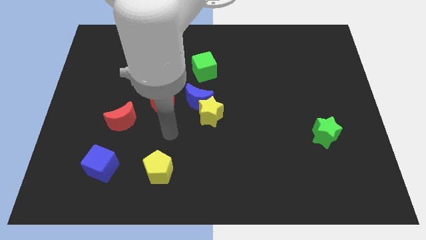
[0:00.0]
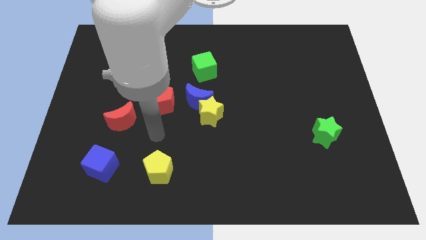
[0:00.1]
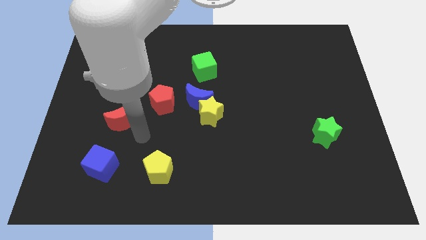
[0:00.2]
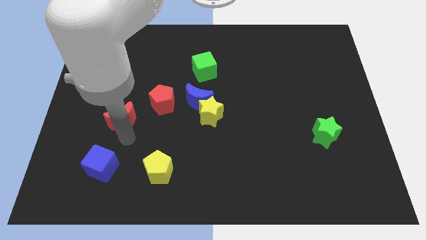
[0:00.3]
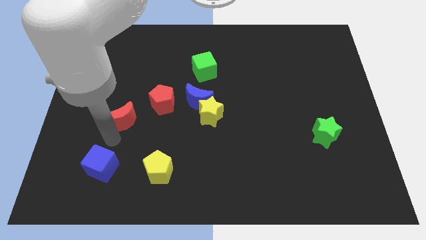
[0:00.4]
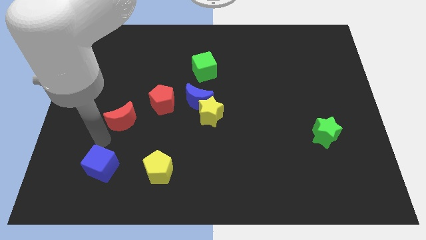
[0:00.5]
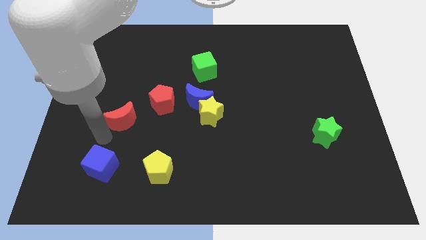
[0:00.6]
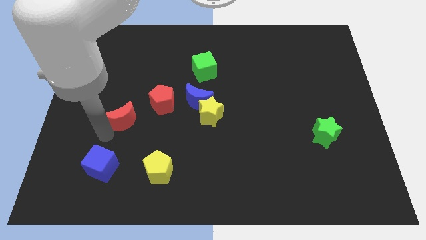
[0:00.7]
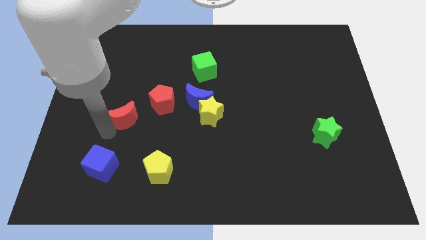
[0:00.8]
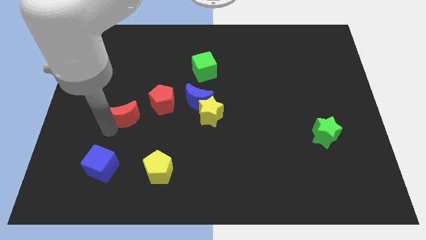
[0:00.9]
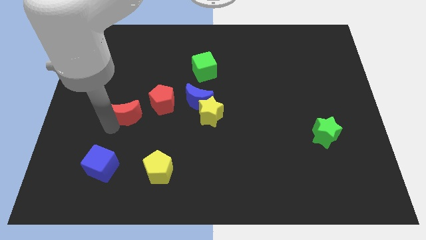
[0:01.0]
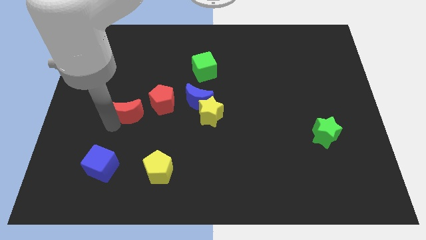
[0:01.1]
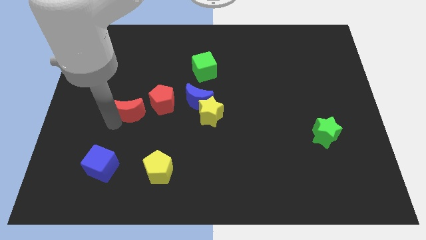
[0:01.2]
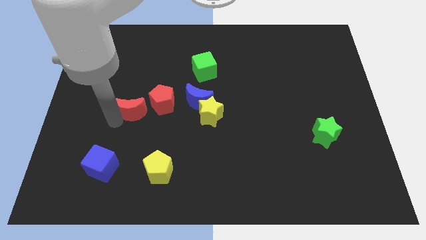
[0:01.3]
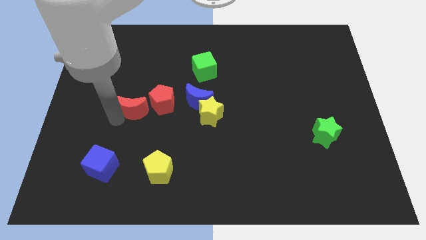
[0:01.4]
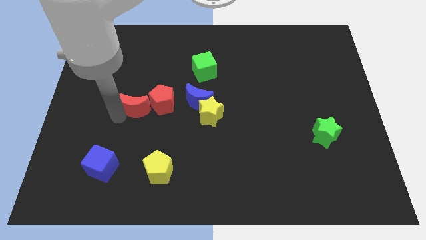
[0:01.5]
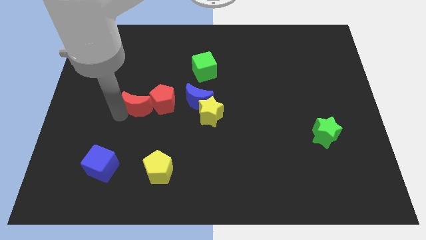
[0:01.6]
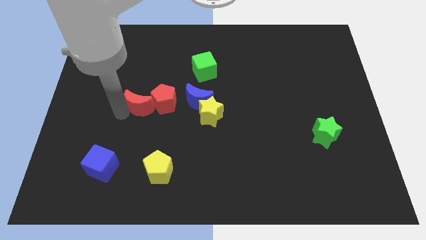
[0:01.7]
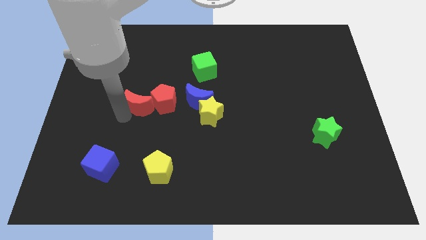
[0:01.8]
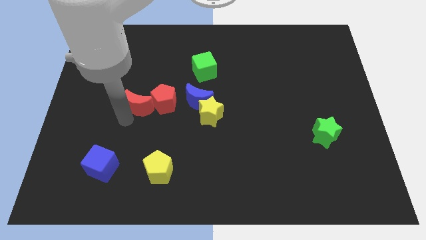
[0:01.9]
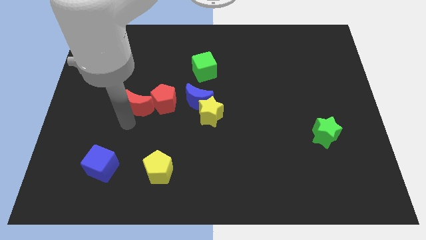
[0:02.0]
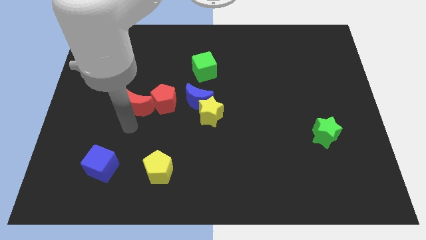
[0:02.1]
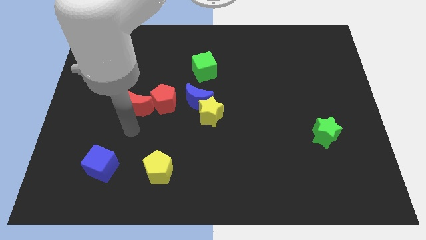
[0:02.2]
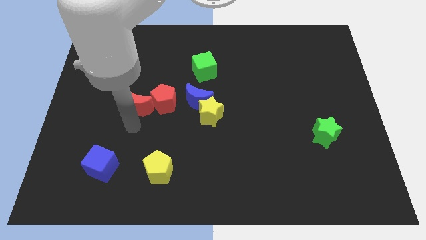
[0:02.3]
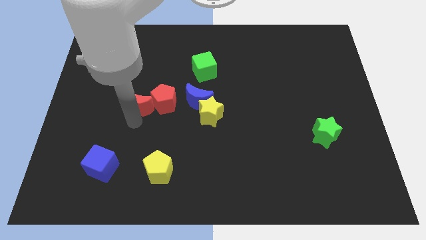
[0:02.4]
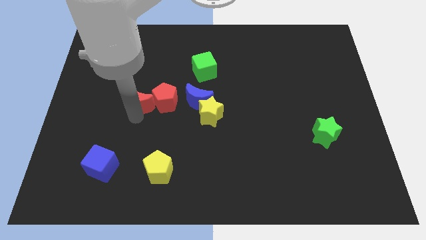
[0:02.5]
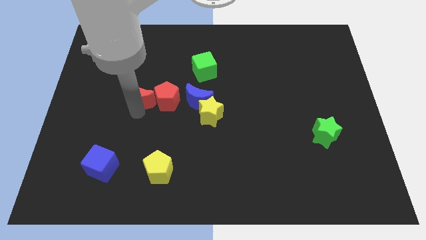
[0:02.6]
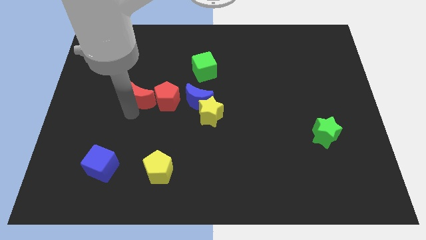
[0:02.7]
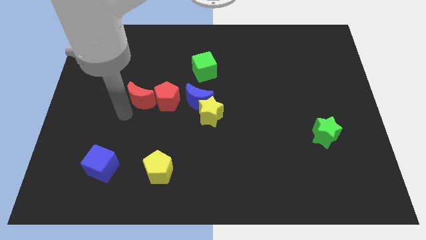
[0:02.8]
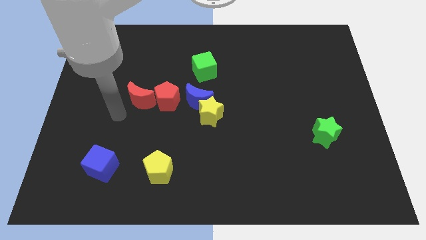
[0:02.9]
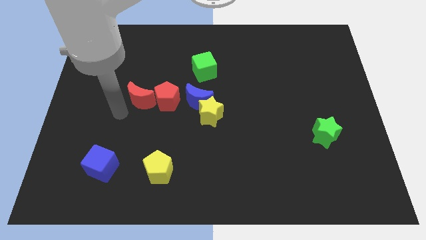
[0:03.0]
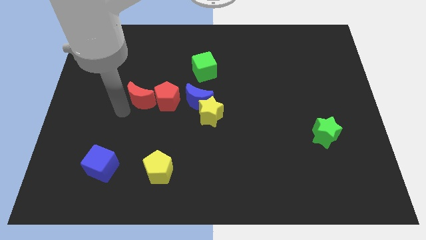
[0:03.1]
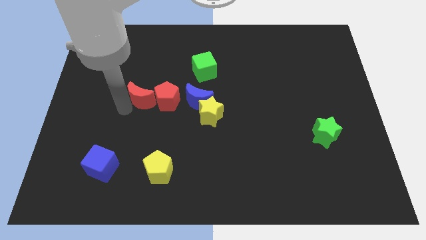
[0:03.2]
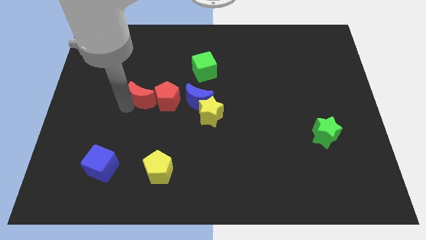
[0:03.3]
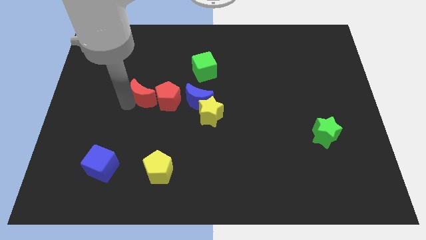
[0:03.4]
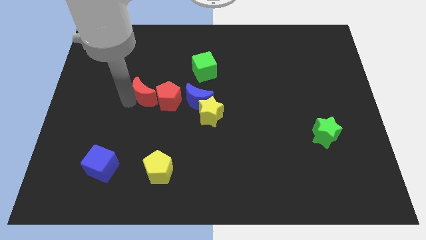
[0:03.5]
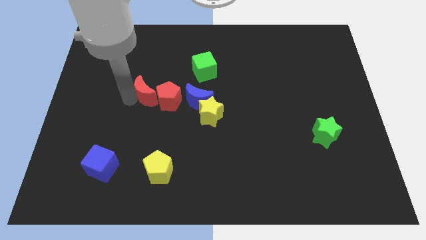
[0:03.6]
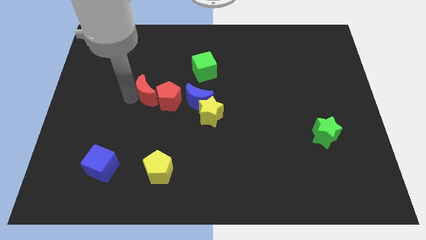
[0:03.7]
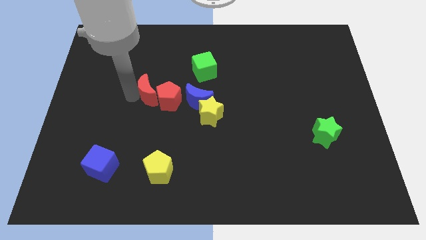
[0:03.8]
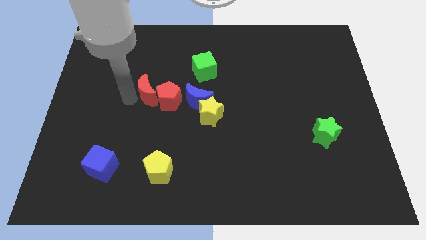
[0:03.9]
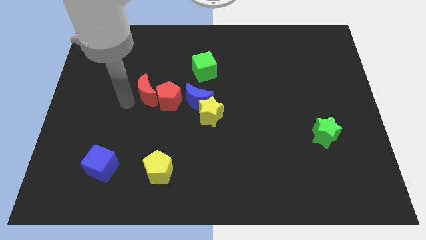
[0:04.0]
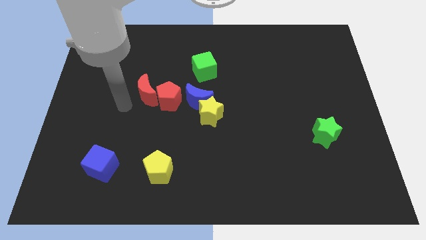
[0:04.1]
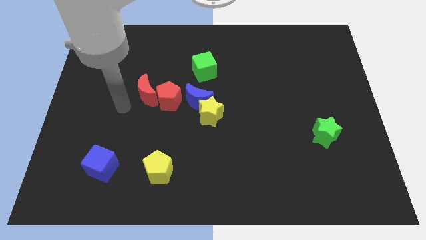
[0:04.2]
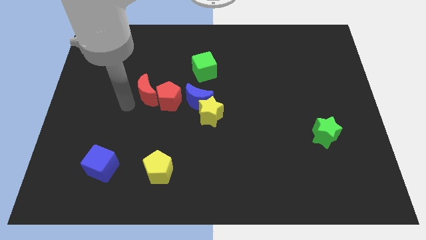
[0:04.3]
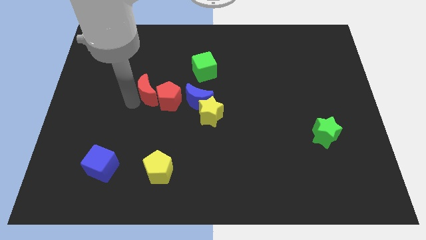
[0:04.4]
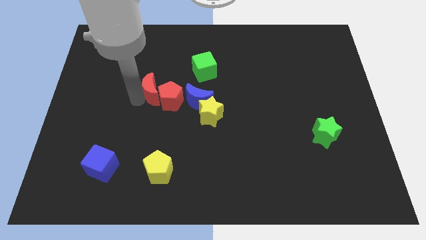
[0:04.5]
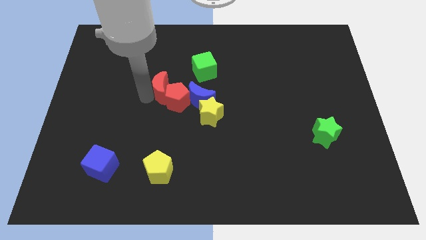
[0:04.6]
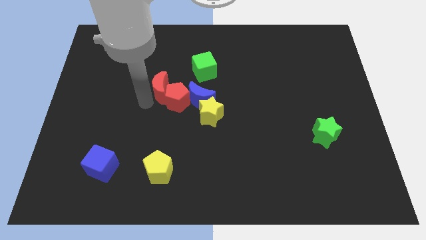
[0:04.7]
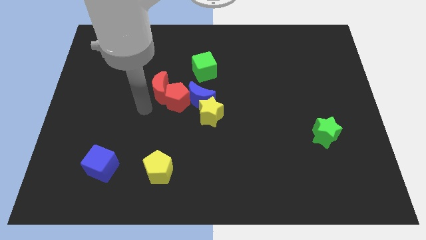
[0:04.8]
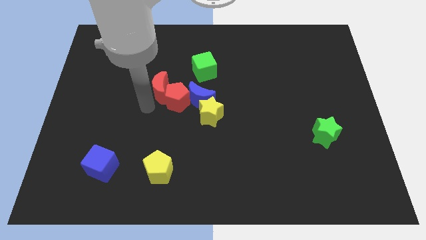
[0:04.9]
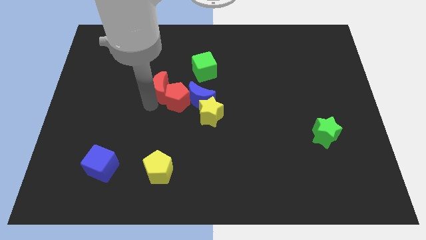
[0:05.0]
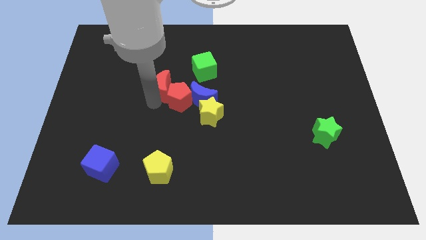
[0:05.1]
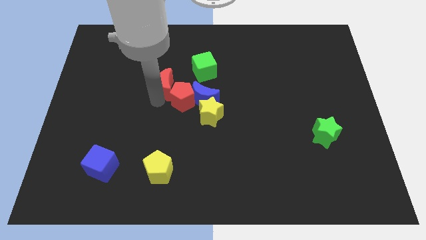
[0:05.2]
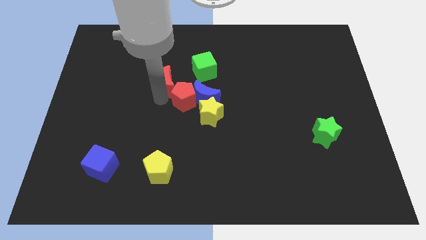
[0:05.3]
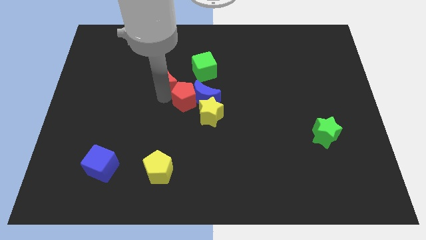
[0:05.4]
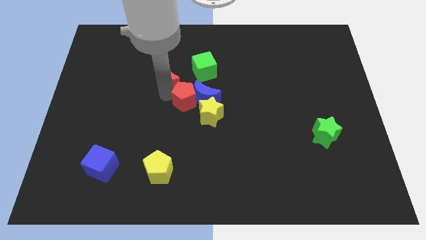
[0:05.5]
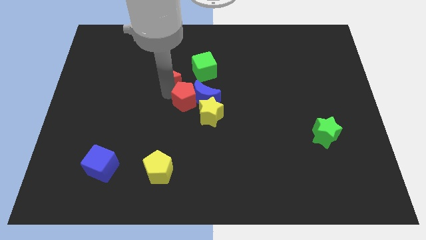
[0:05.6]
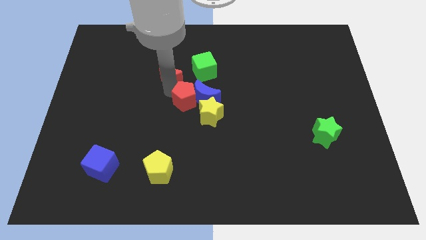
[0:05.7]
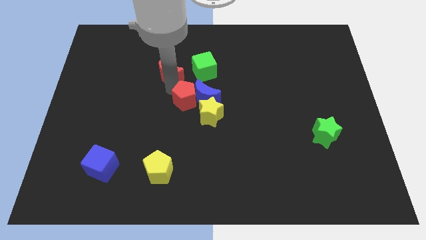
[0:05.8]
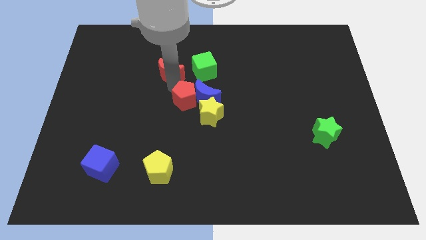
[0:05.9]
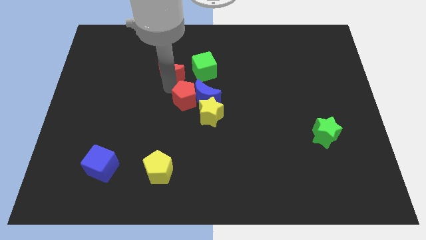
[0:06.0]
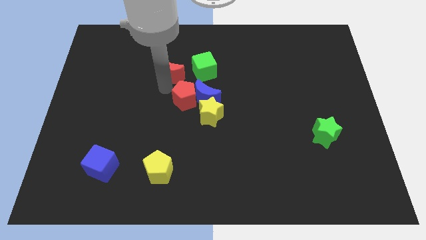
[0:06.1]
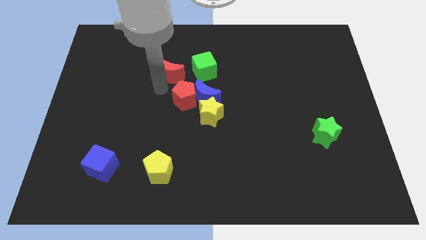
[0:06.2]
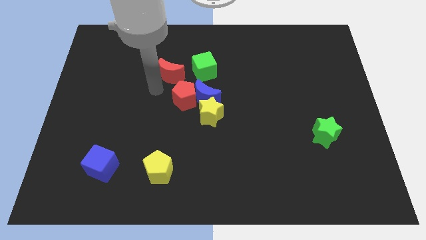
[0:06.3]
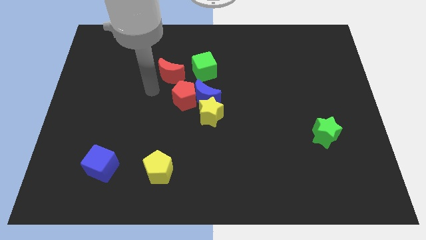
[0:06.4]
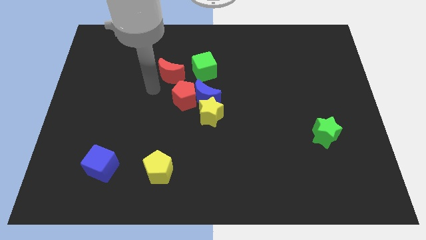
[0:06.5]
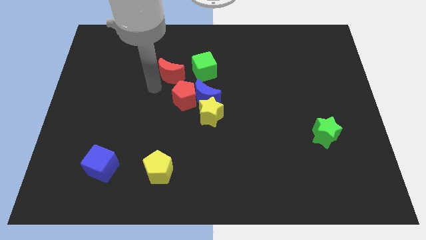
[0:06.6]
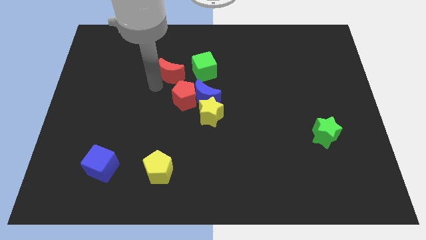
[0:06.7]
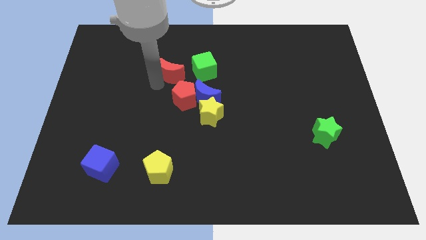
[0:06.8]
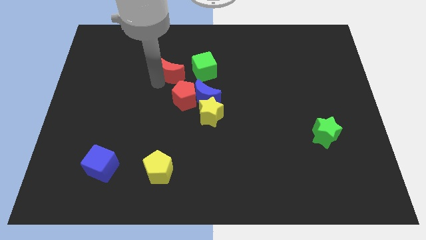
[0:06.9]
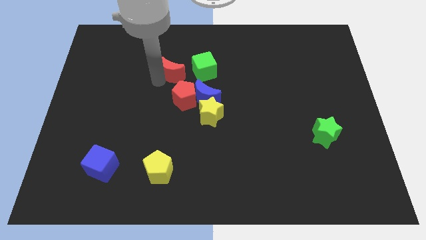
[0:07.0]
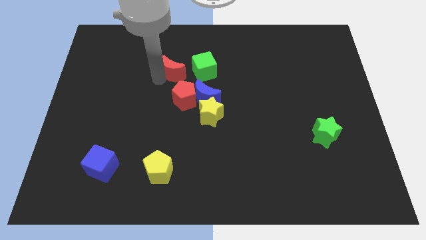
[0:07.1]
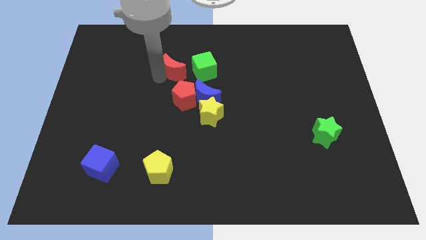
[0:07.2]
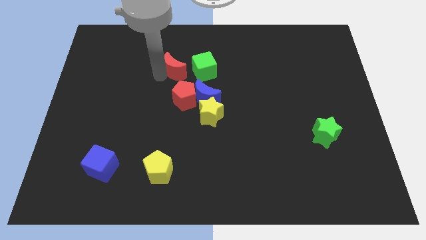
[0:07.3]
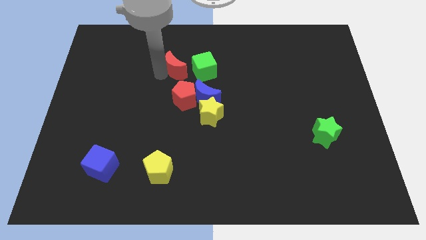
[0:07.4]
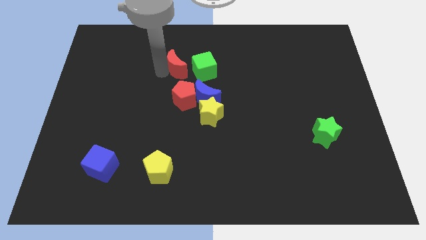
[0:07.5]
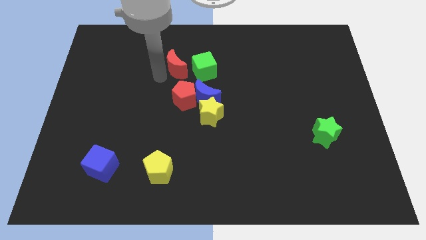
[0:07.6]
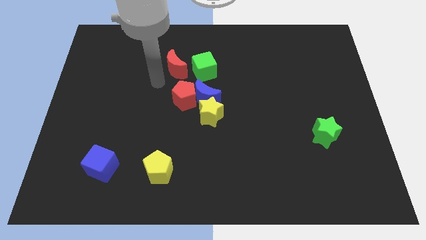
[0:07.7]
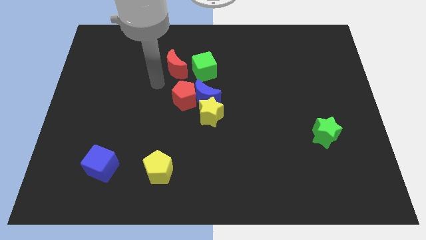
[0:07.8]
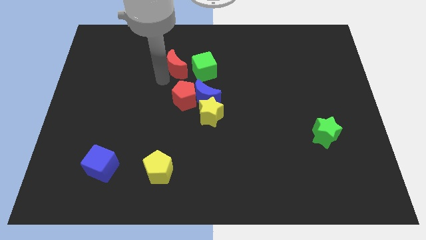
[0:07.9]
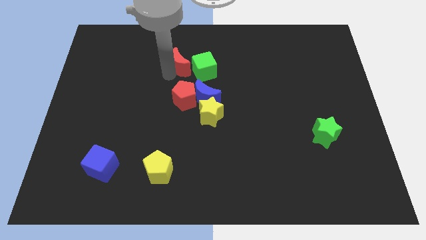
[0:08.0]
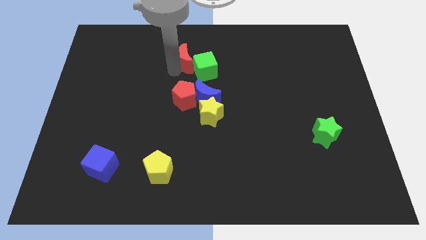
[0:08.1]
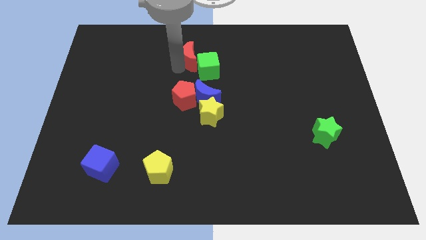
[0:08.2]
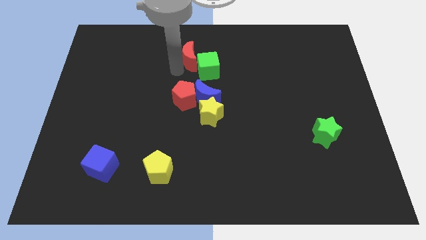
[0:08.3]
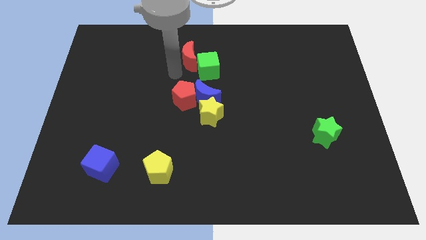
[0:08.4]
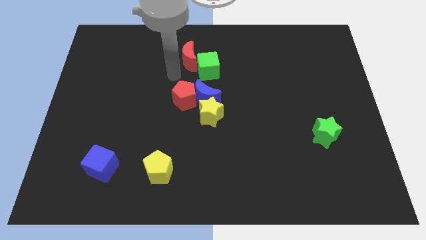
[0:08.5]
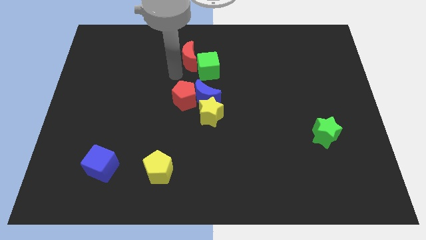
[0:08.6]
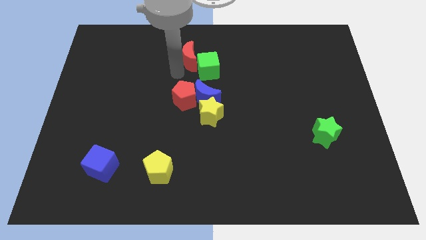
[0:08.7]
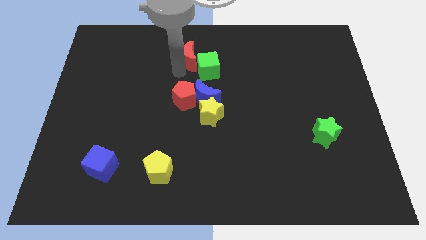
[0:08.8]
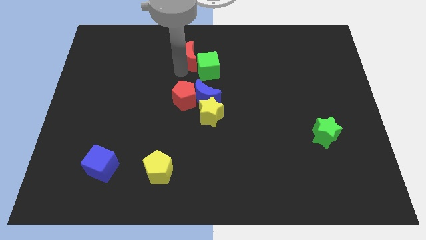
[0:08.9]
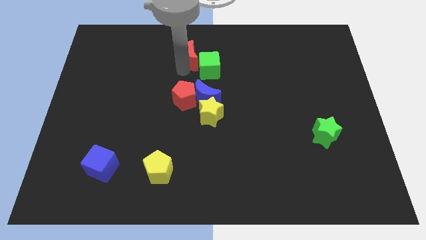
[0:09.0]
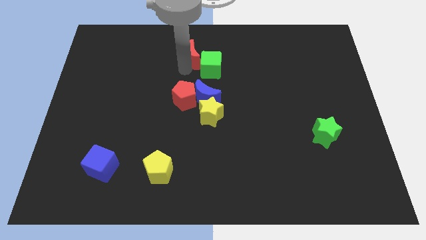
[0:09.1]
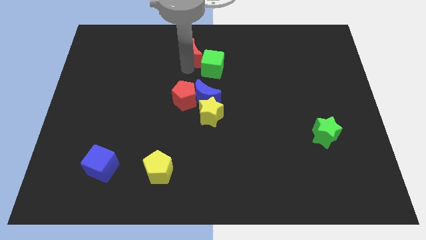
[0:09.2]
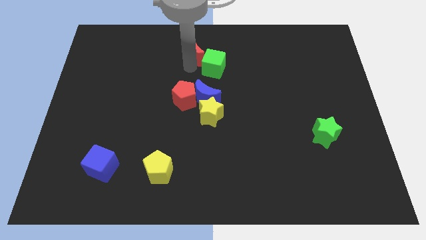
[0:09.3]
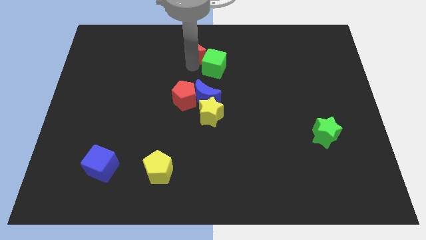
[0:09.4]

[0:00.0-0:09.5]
move the red moon to the top
